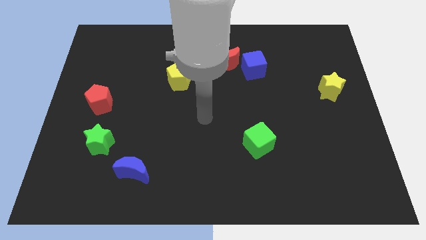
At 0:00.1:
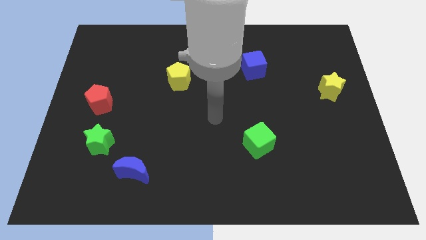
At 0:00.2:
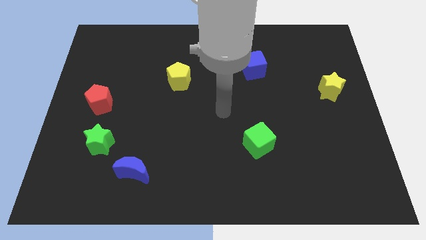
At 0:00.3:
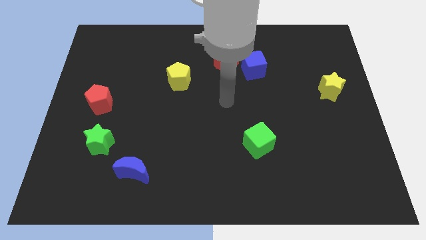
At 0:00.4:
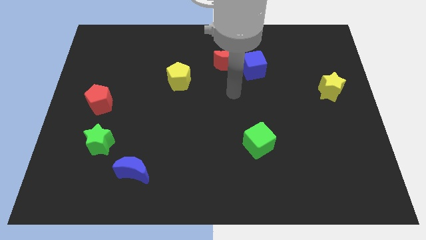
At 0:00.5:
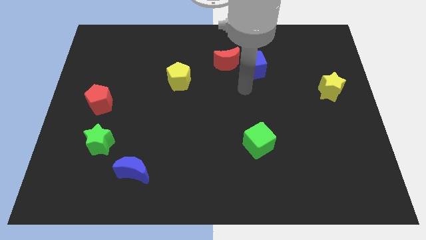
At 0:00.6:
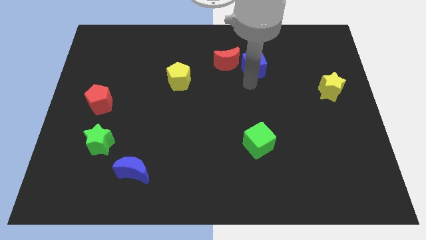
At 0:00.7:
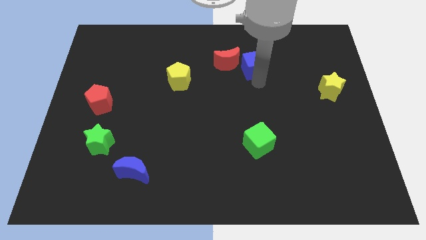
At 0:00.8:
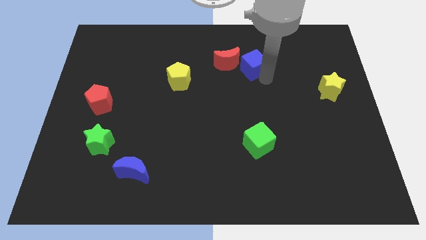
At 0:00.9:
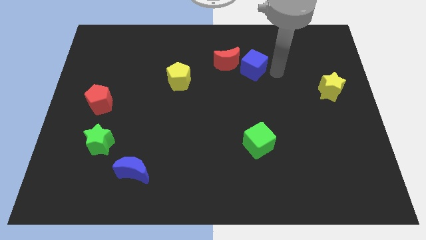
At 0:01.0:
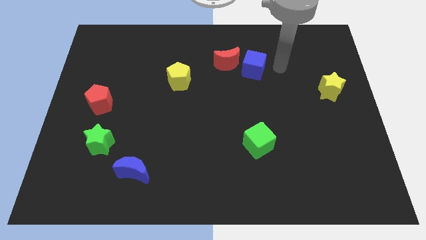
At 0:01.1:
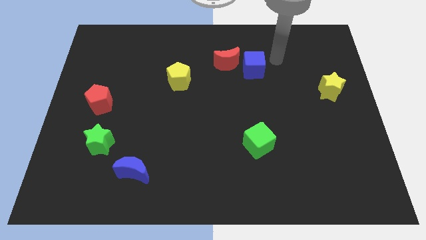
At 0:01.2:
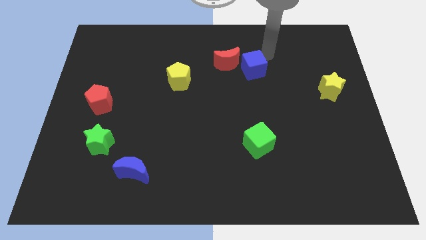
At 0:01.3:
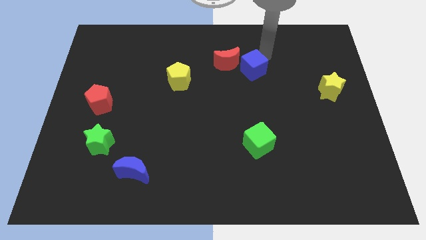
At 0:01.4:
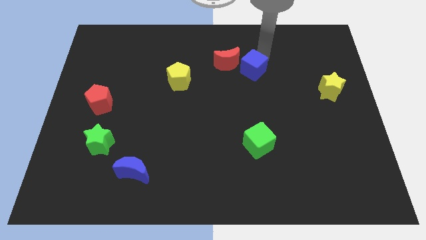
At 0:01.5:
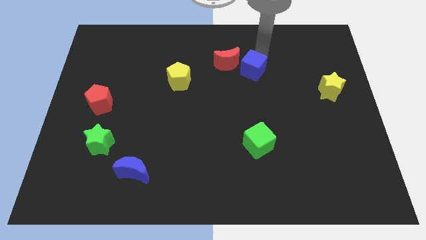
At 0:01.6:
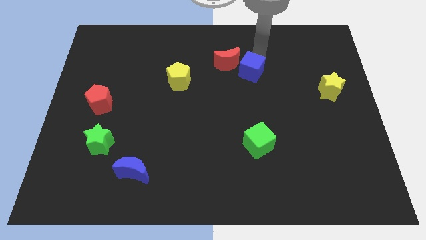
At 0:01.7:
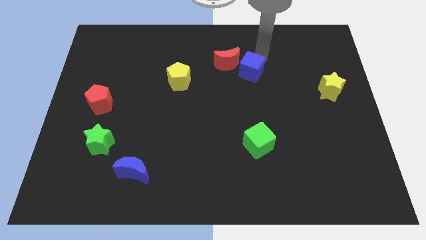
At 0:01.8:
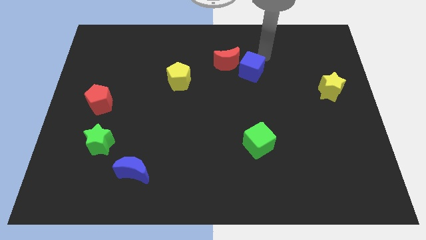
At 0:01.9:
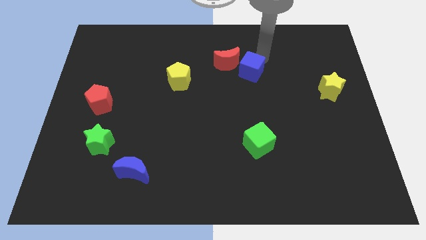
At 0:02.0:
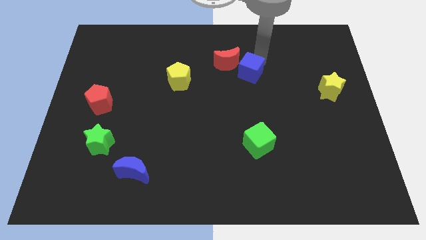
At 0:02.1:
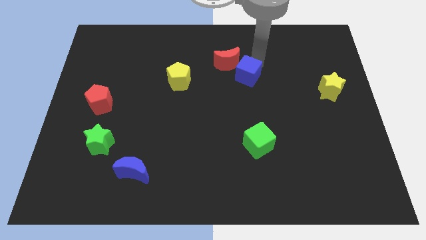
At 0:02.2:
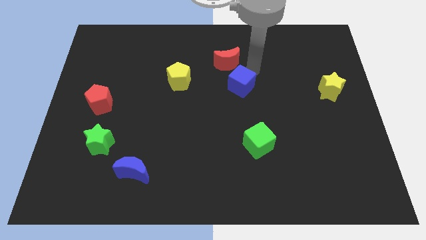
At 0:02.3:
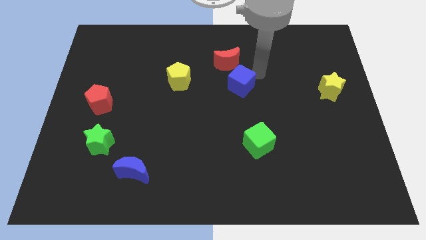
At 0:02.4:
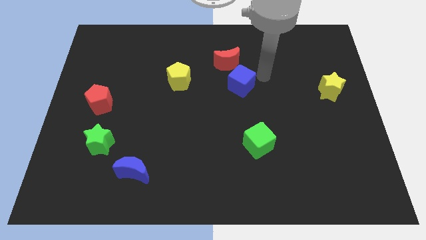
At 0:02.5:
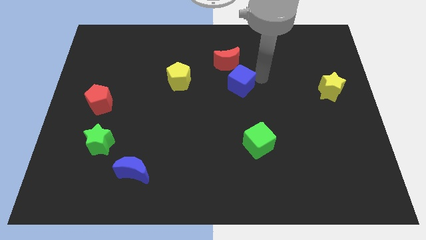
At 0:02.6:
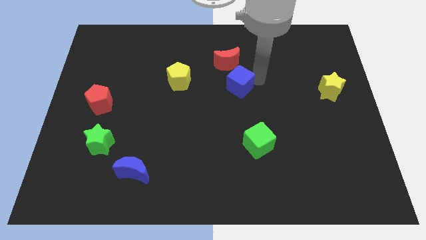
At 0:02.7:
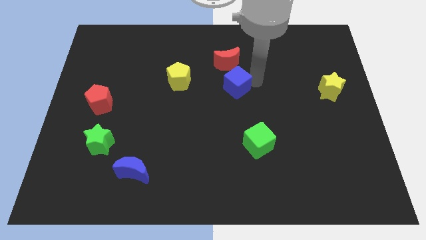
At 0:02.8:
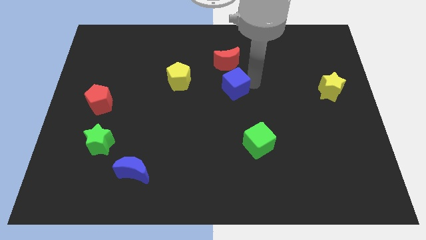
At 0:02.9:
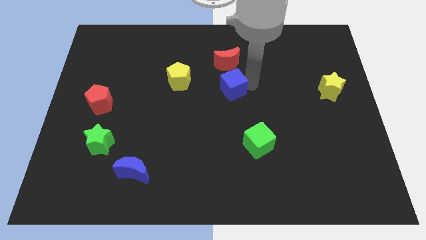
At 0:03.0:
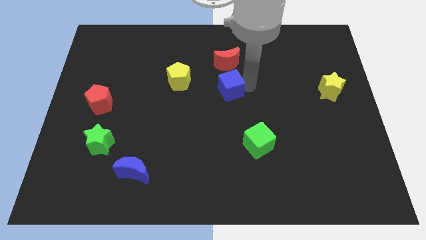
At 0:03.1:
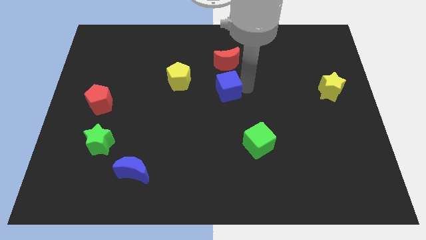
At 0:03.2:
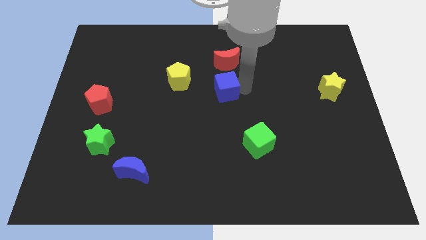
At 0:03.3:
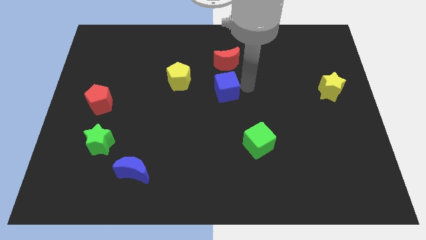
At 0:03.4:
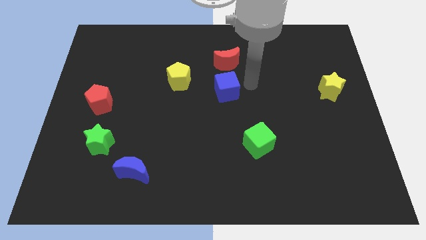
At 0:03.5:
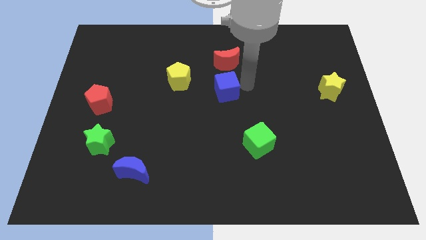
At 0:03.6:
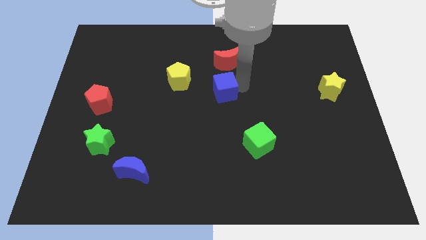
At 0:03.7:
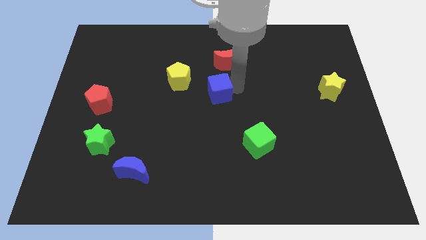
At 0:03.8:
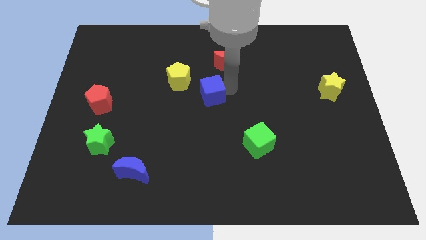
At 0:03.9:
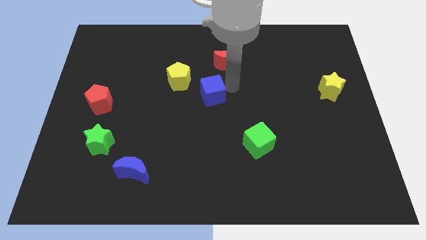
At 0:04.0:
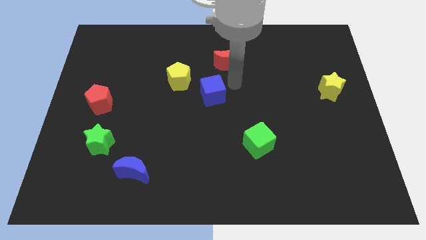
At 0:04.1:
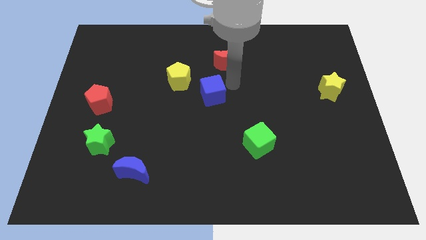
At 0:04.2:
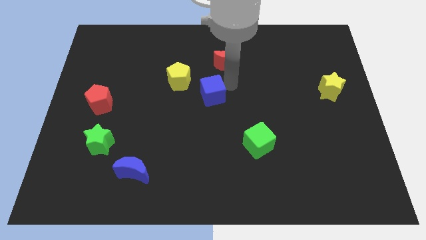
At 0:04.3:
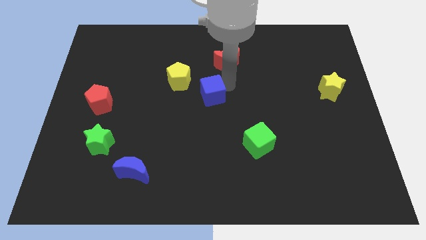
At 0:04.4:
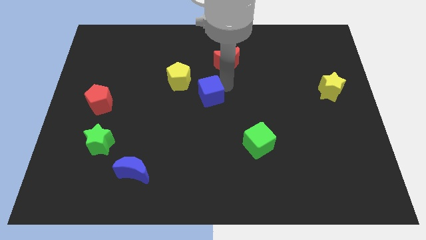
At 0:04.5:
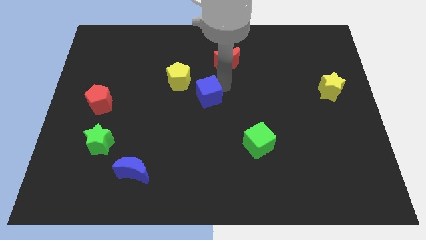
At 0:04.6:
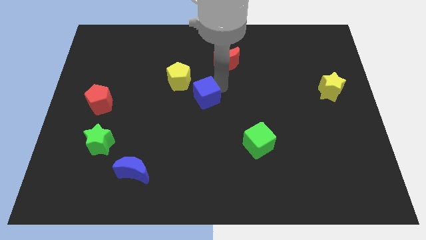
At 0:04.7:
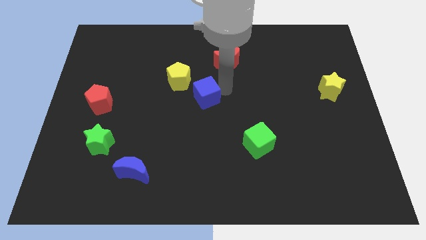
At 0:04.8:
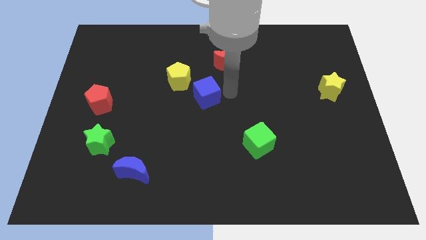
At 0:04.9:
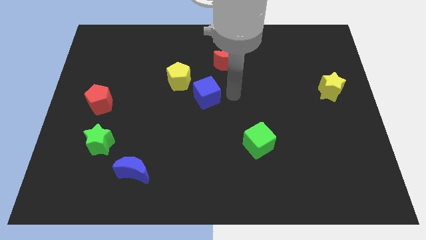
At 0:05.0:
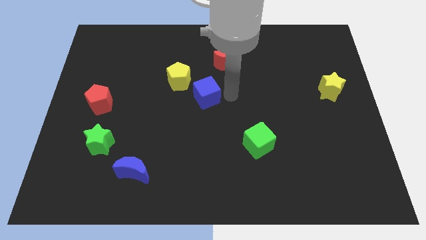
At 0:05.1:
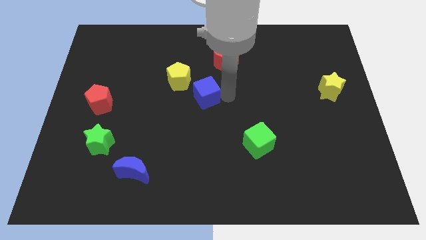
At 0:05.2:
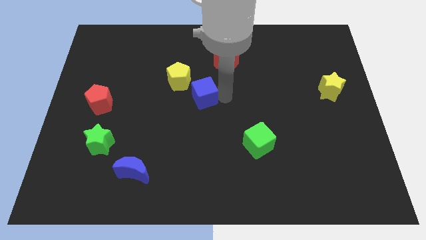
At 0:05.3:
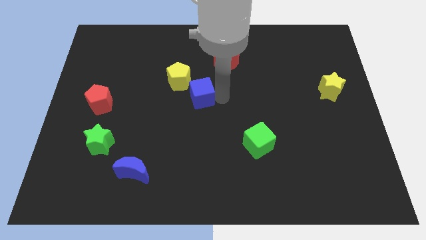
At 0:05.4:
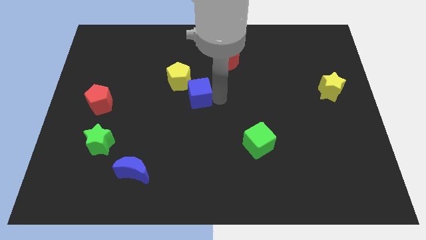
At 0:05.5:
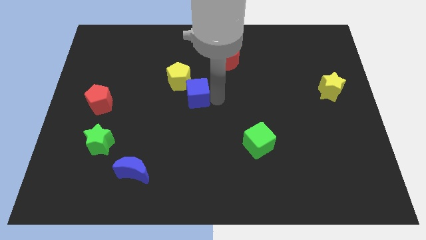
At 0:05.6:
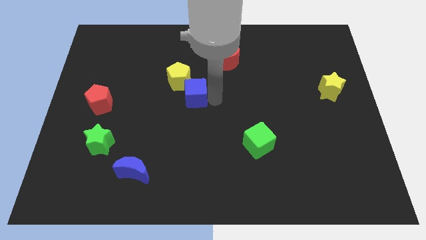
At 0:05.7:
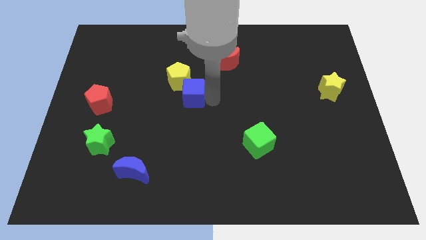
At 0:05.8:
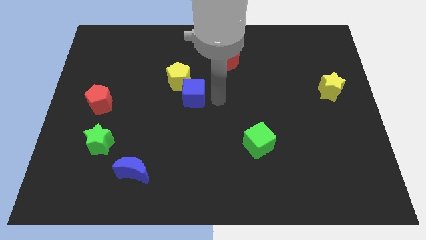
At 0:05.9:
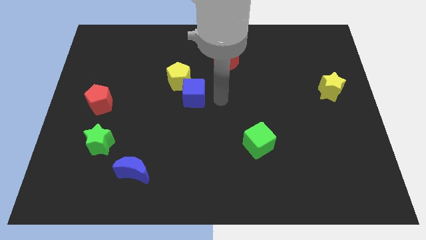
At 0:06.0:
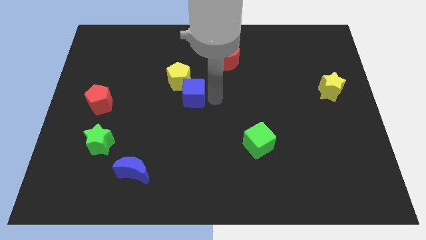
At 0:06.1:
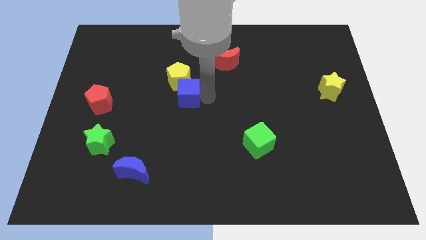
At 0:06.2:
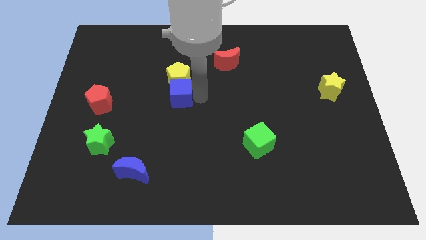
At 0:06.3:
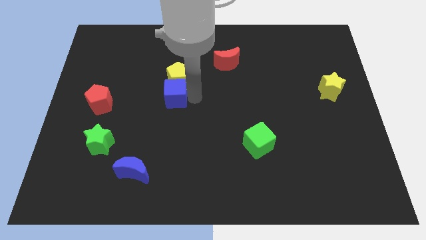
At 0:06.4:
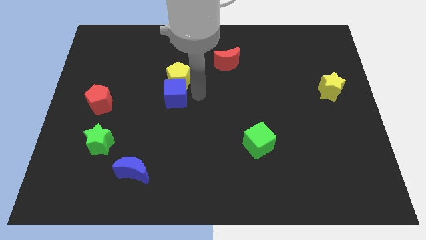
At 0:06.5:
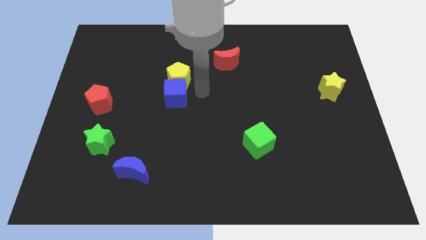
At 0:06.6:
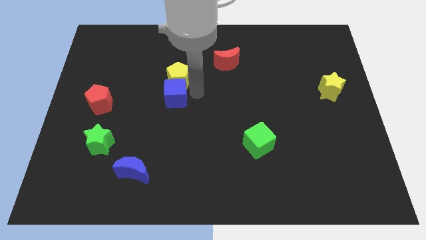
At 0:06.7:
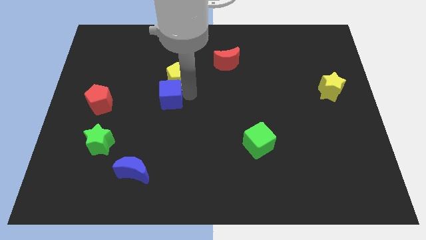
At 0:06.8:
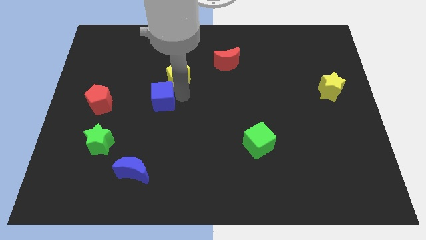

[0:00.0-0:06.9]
push the blue cube right of the red pentagon
